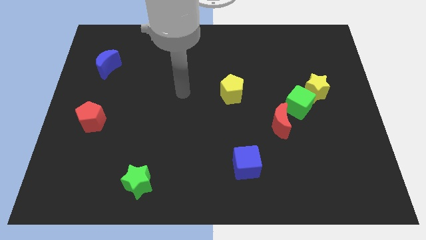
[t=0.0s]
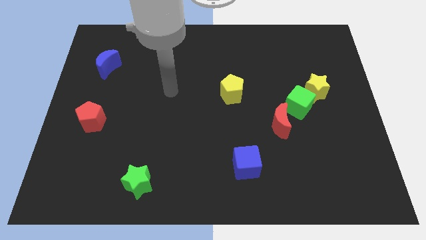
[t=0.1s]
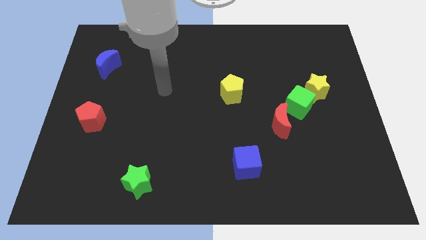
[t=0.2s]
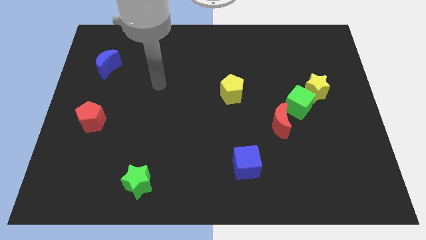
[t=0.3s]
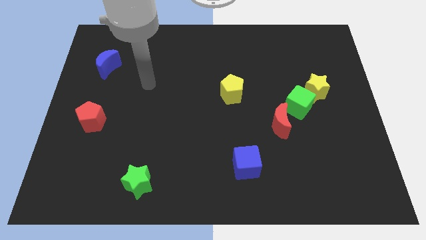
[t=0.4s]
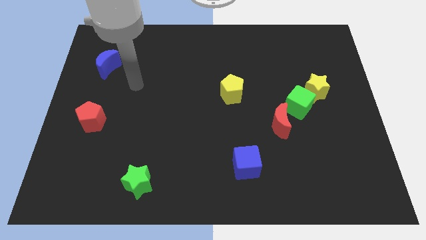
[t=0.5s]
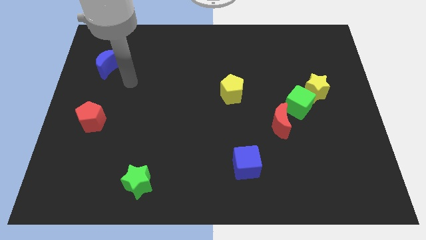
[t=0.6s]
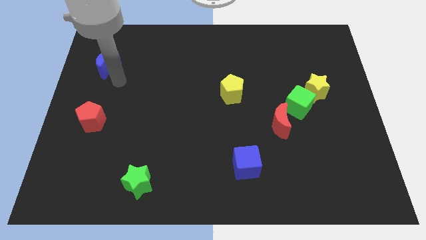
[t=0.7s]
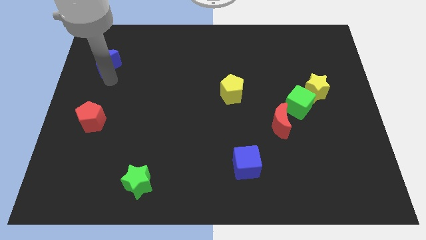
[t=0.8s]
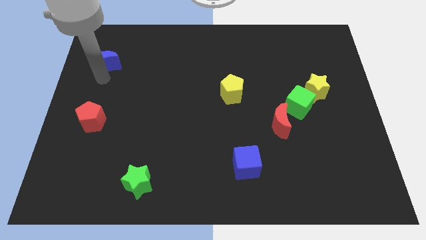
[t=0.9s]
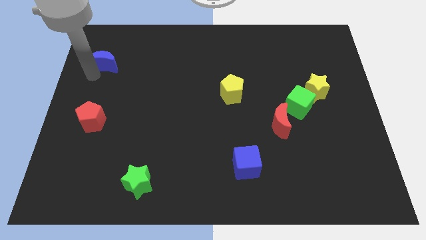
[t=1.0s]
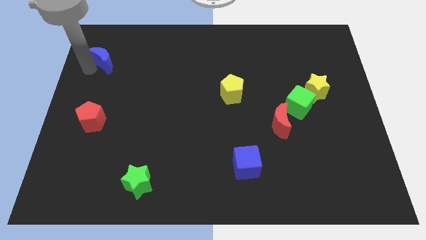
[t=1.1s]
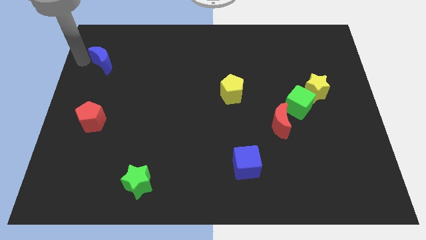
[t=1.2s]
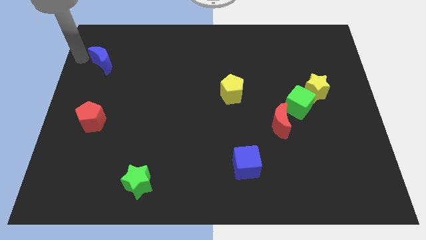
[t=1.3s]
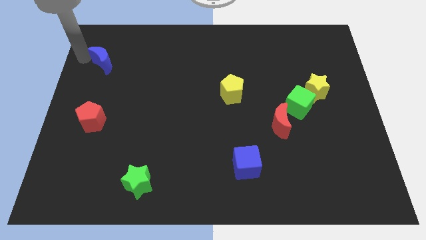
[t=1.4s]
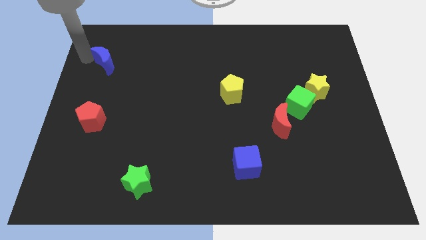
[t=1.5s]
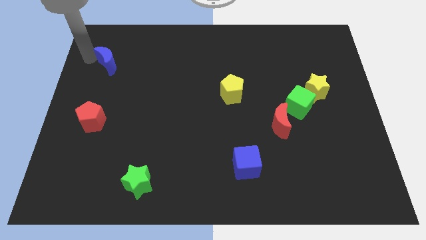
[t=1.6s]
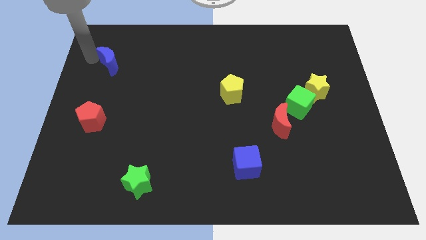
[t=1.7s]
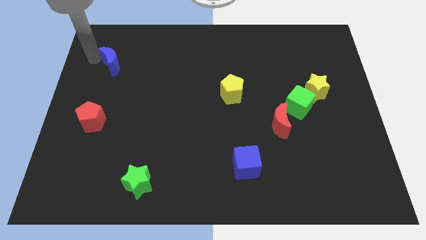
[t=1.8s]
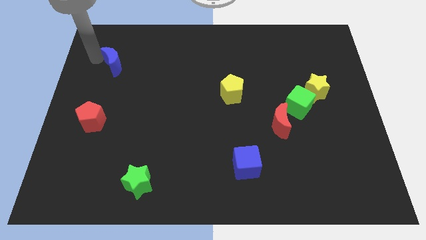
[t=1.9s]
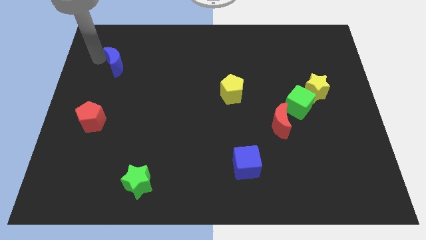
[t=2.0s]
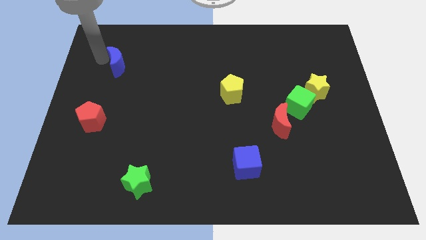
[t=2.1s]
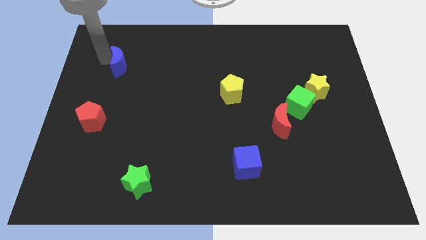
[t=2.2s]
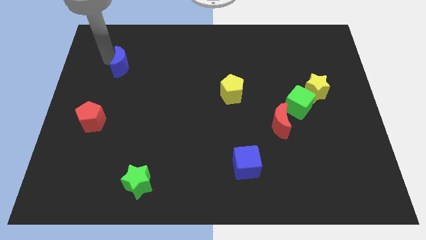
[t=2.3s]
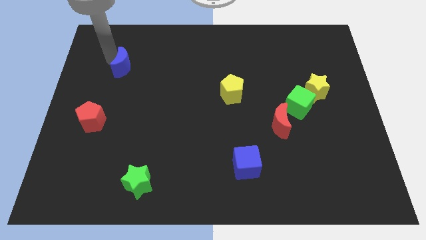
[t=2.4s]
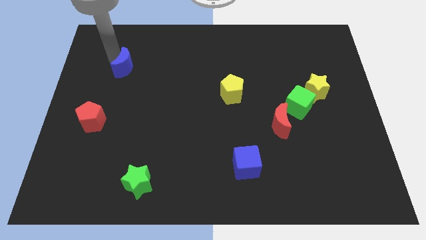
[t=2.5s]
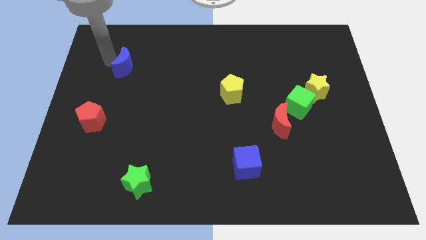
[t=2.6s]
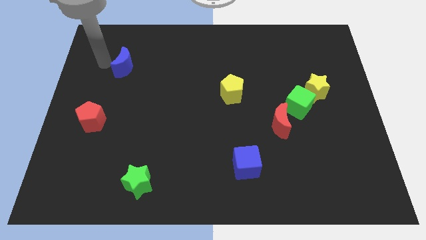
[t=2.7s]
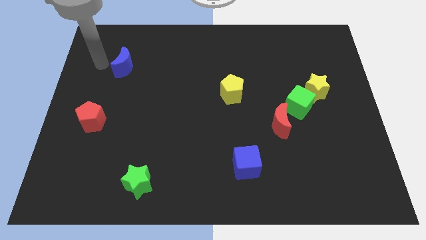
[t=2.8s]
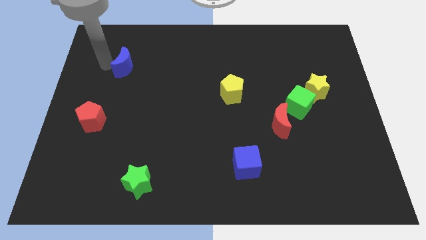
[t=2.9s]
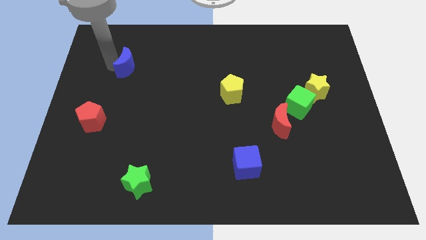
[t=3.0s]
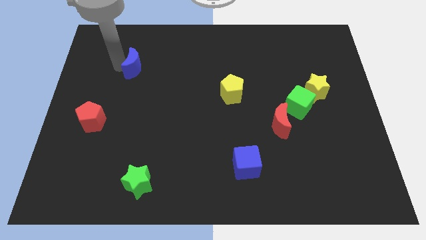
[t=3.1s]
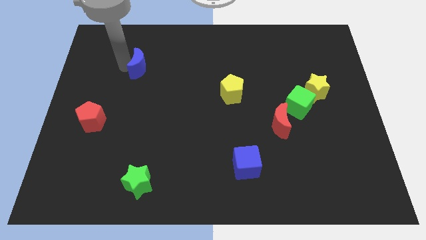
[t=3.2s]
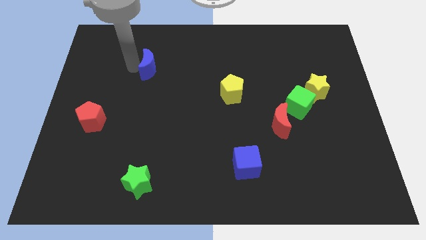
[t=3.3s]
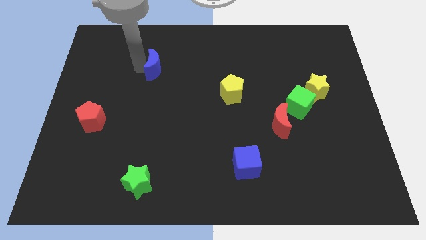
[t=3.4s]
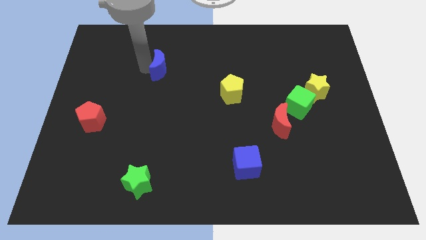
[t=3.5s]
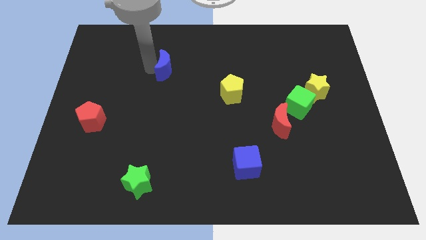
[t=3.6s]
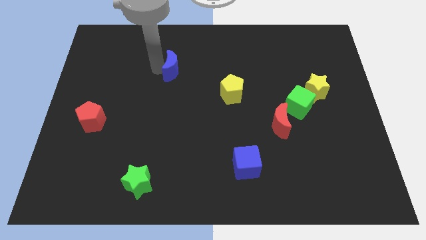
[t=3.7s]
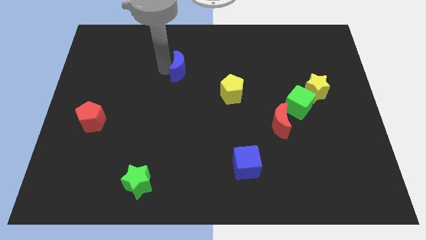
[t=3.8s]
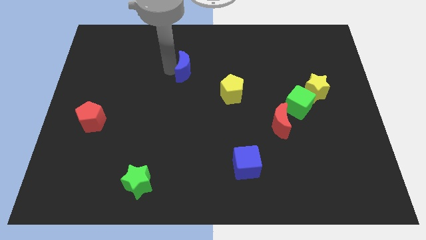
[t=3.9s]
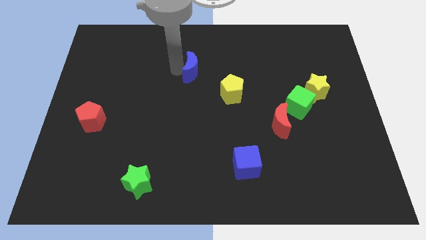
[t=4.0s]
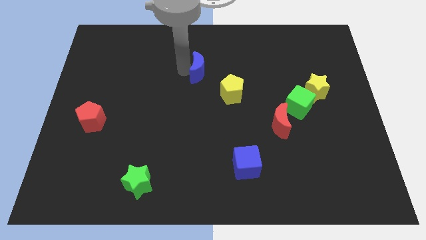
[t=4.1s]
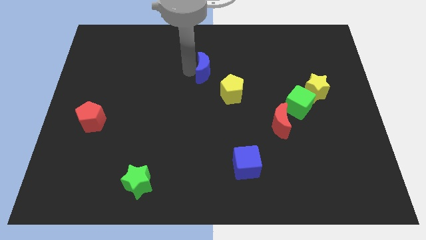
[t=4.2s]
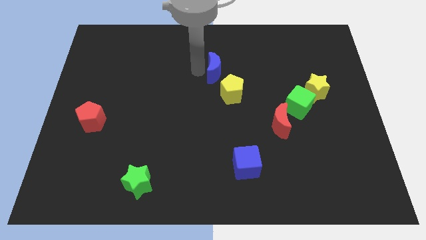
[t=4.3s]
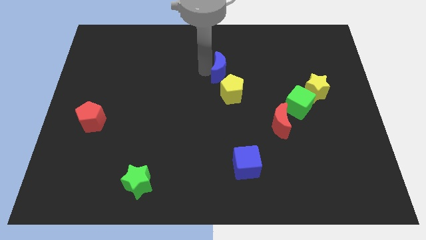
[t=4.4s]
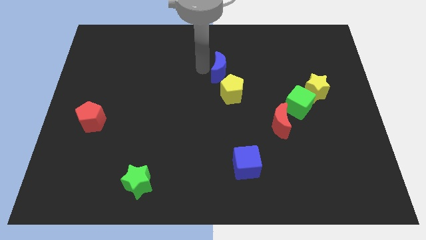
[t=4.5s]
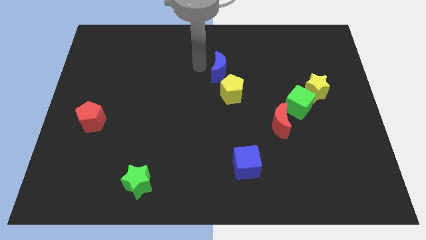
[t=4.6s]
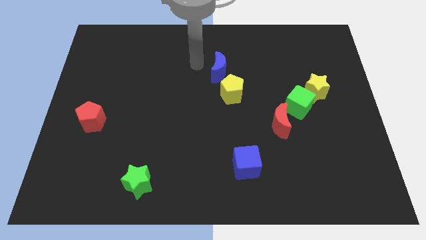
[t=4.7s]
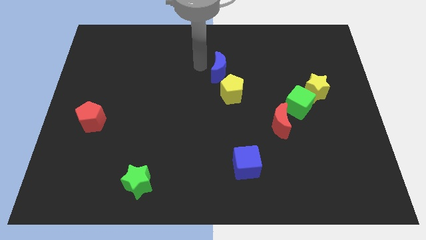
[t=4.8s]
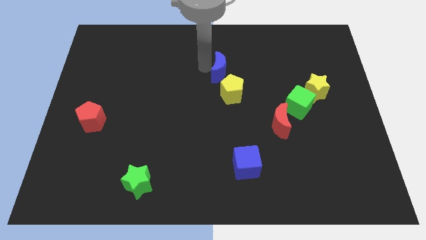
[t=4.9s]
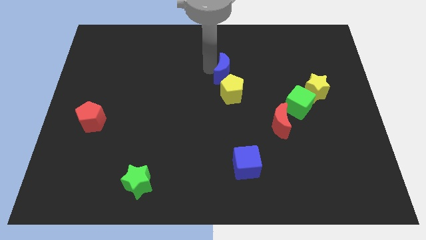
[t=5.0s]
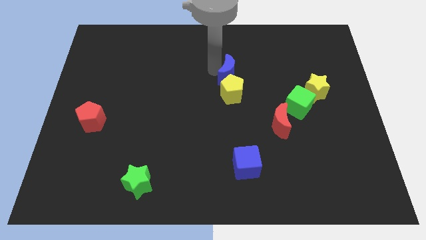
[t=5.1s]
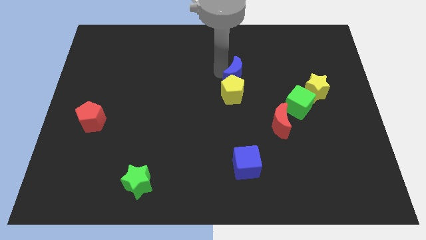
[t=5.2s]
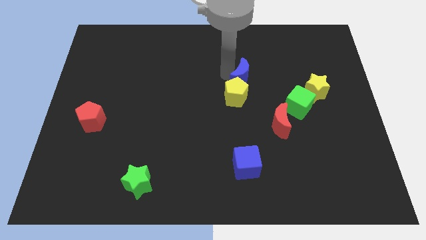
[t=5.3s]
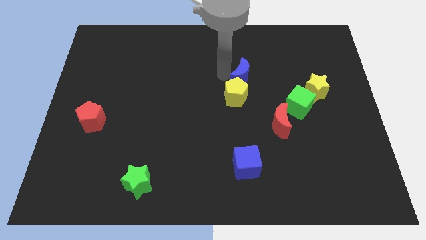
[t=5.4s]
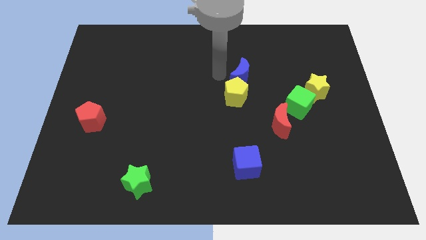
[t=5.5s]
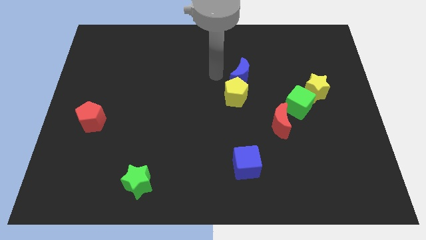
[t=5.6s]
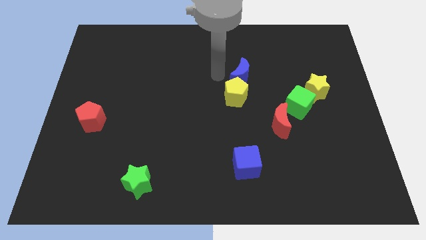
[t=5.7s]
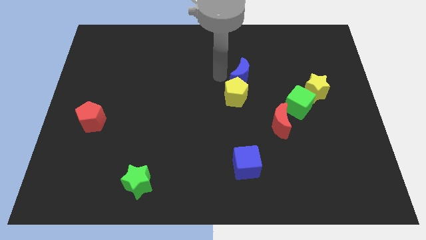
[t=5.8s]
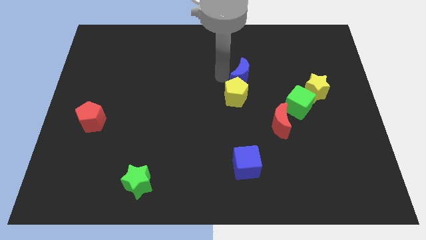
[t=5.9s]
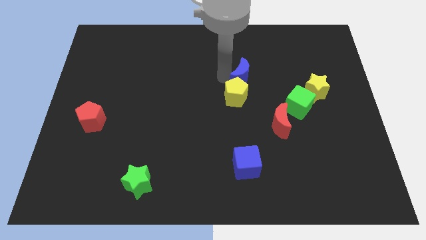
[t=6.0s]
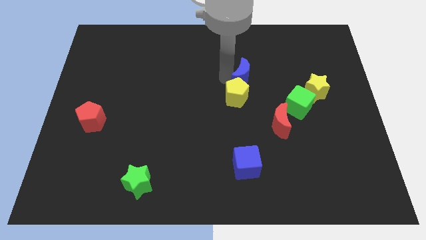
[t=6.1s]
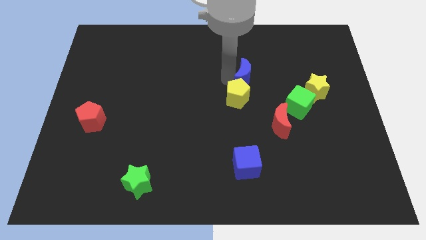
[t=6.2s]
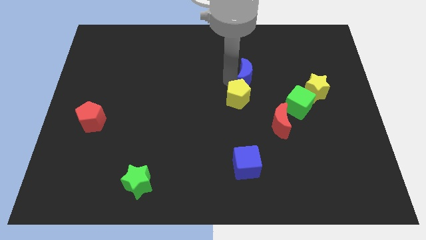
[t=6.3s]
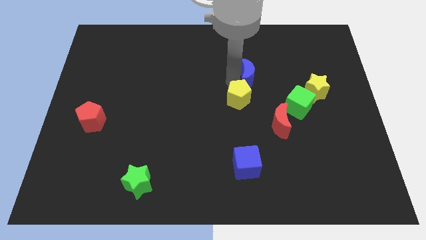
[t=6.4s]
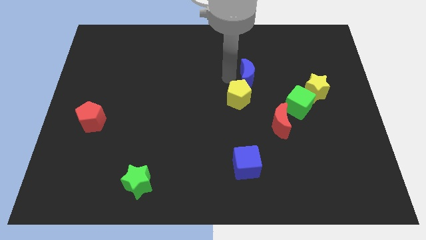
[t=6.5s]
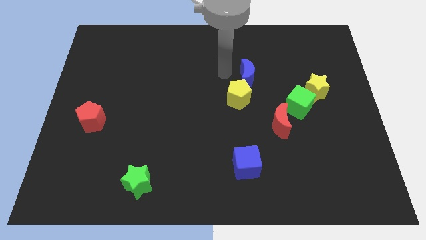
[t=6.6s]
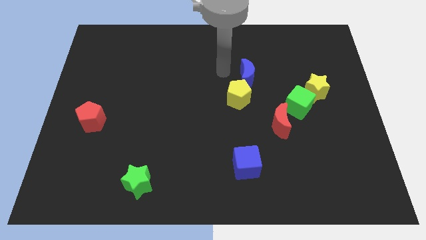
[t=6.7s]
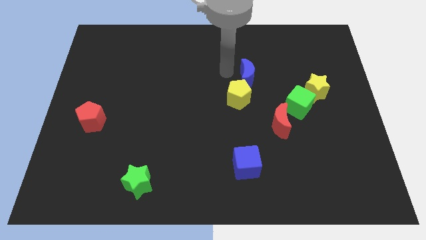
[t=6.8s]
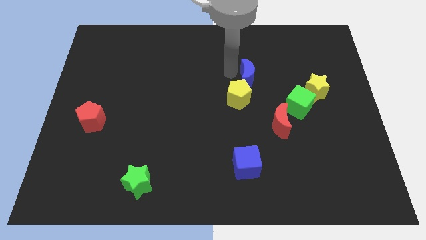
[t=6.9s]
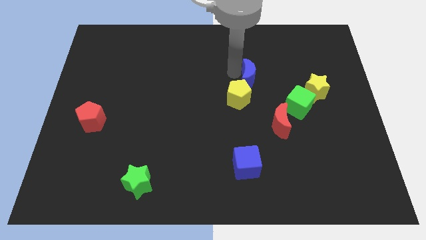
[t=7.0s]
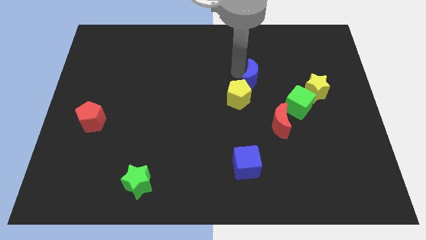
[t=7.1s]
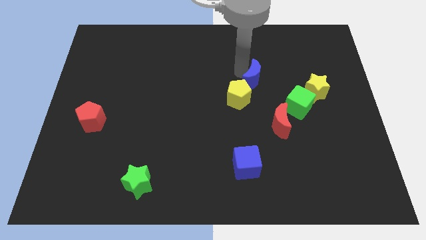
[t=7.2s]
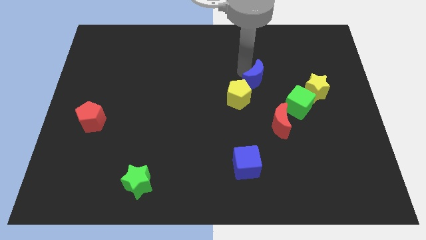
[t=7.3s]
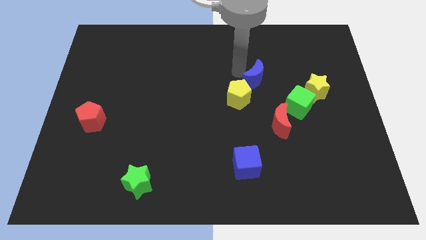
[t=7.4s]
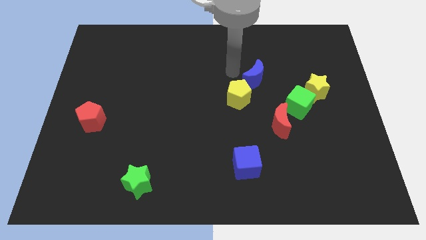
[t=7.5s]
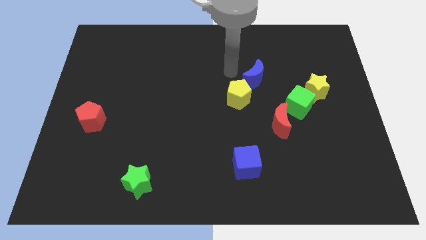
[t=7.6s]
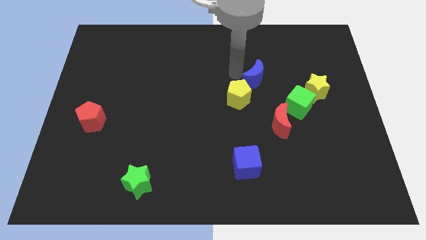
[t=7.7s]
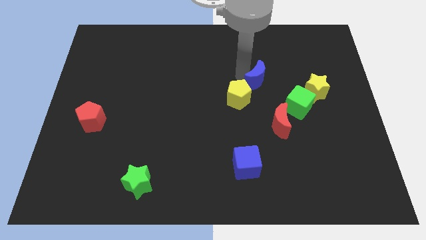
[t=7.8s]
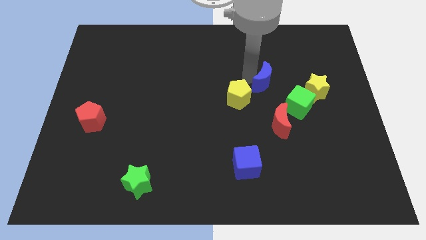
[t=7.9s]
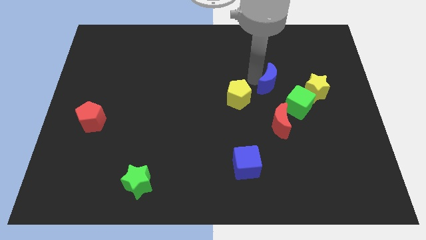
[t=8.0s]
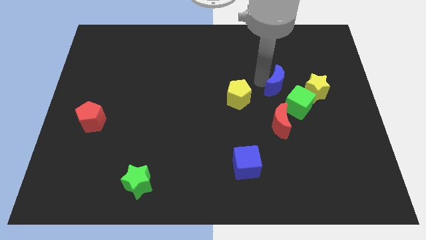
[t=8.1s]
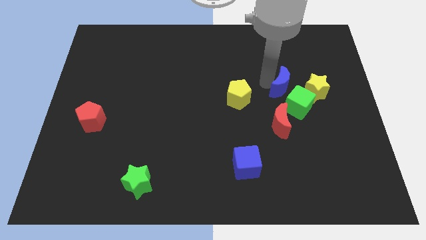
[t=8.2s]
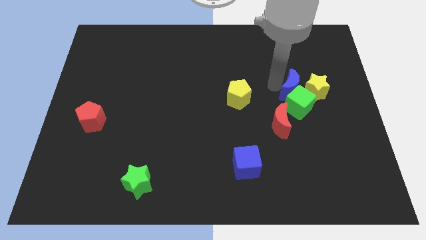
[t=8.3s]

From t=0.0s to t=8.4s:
move the blue moon towards the yellow star
